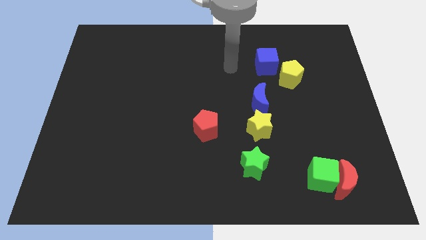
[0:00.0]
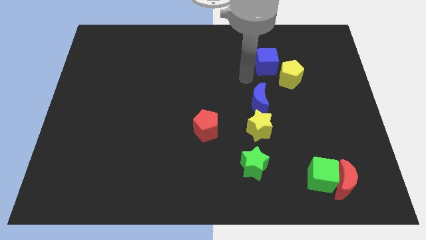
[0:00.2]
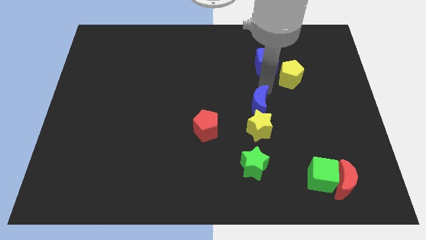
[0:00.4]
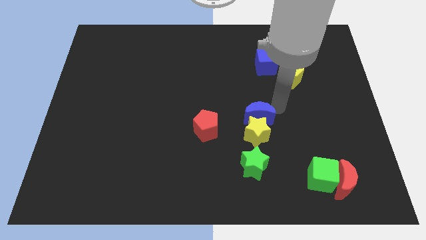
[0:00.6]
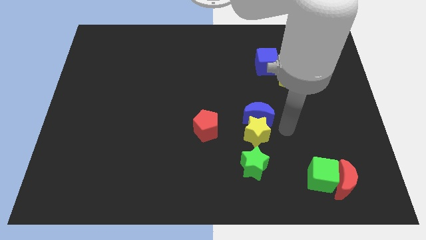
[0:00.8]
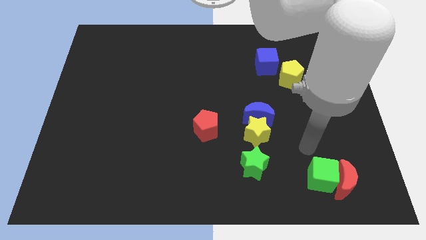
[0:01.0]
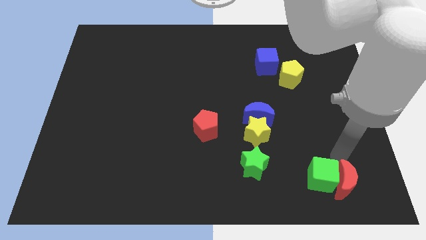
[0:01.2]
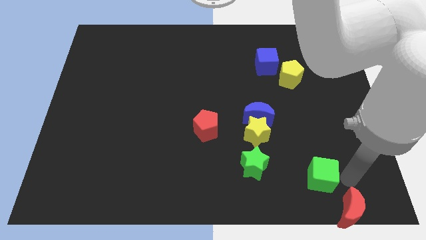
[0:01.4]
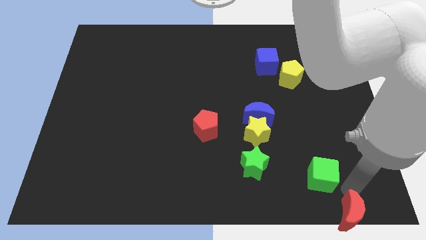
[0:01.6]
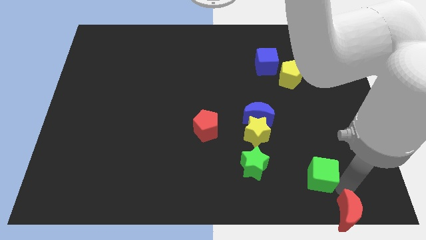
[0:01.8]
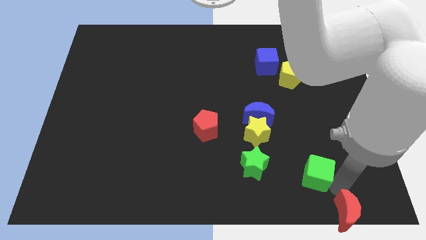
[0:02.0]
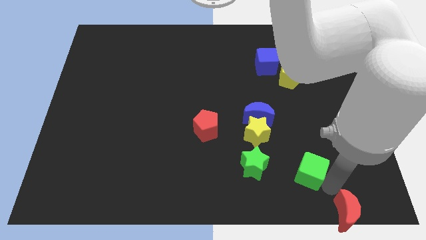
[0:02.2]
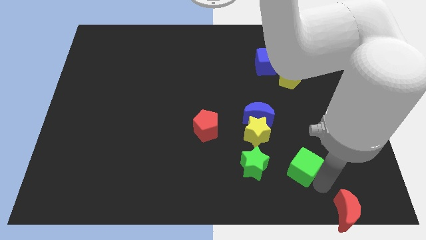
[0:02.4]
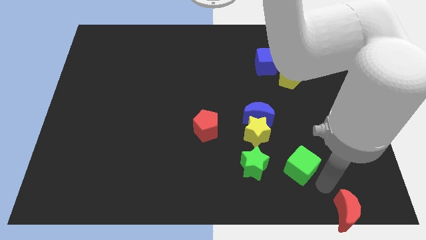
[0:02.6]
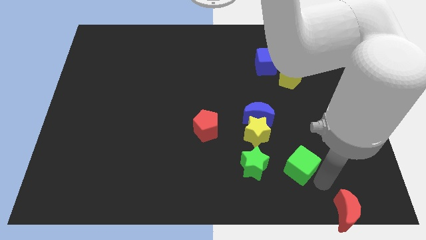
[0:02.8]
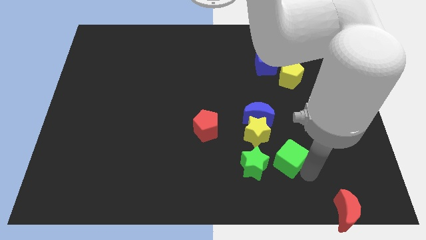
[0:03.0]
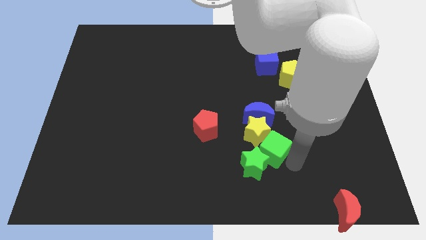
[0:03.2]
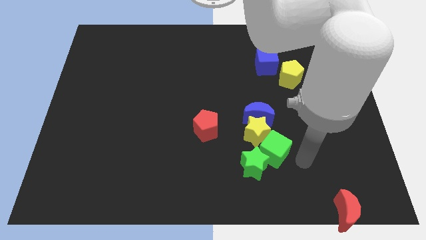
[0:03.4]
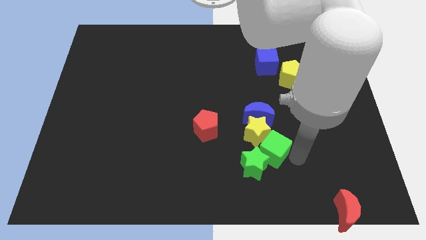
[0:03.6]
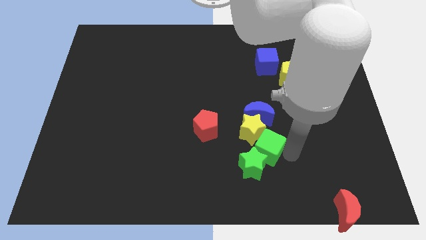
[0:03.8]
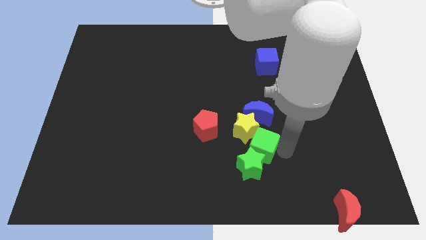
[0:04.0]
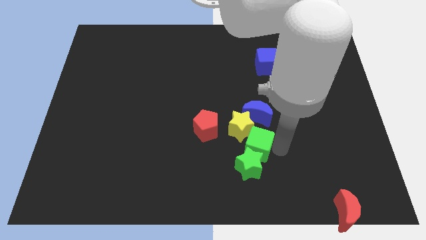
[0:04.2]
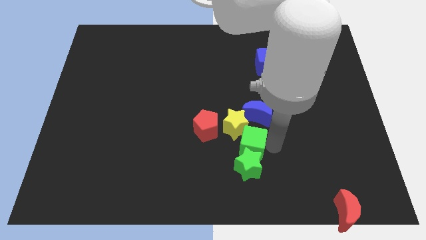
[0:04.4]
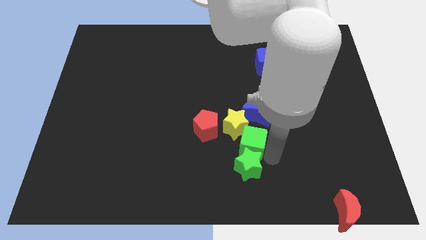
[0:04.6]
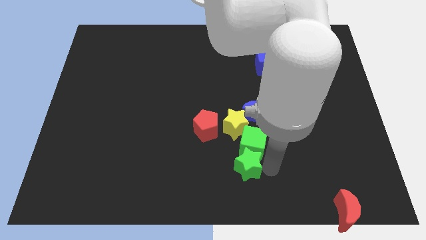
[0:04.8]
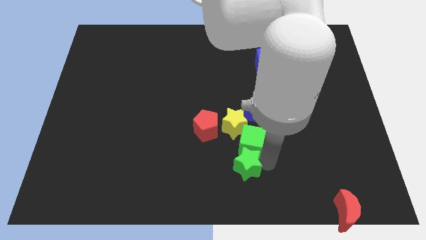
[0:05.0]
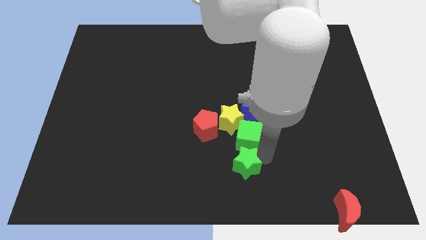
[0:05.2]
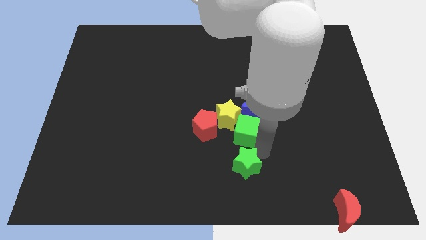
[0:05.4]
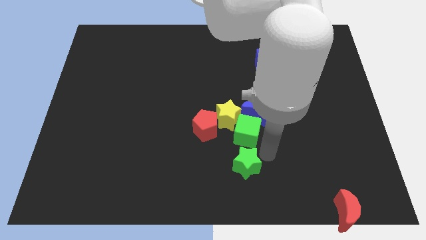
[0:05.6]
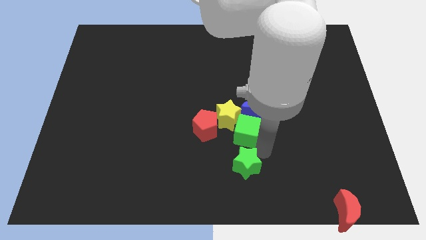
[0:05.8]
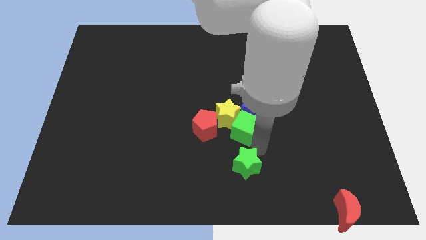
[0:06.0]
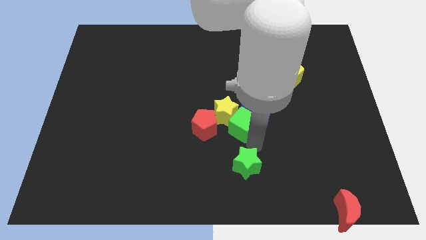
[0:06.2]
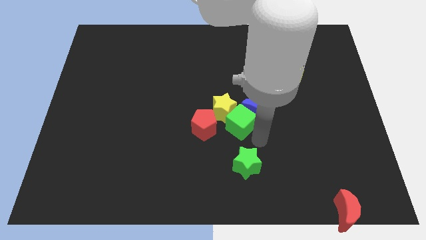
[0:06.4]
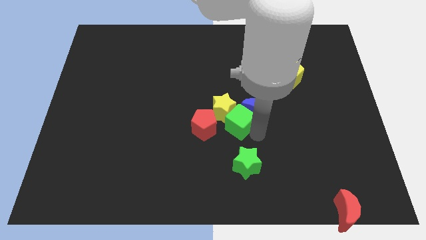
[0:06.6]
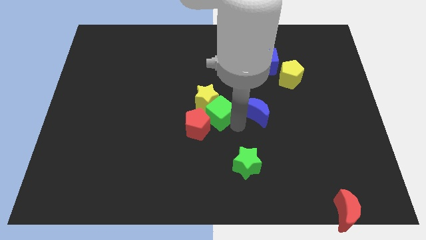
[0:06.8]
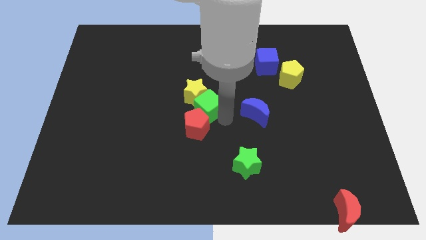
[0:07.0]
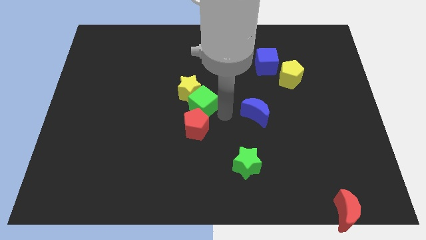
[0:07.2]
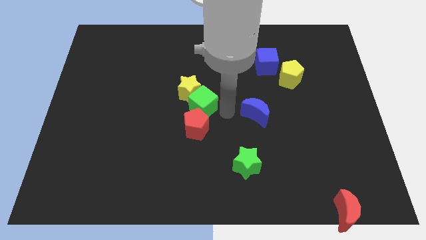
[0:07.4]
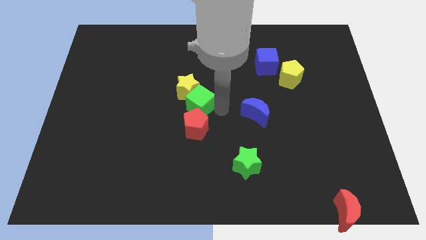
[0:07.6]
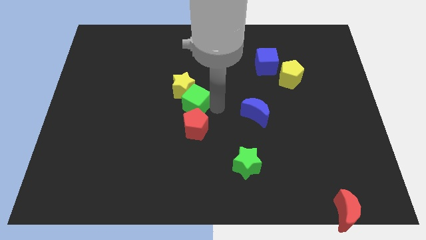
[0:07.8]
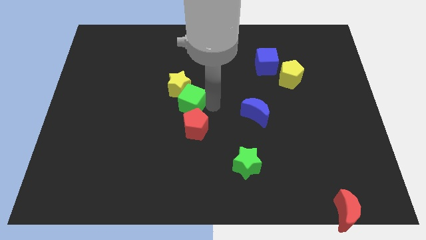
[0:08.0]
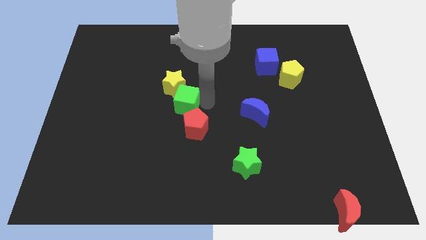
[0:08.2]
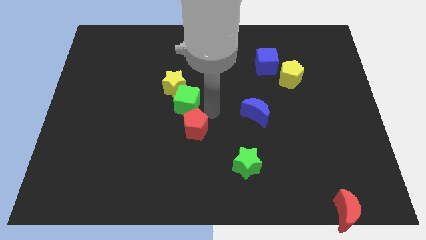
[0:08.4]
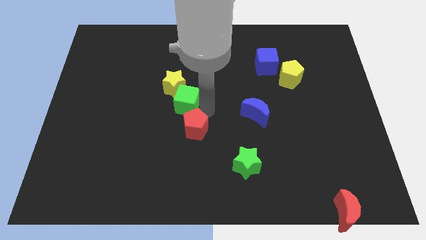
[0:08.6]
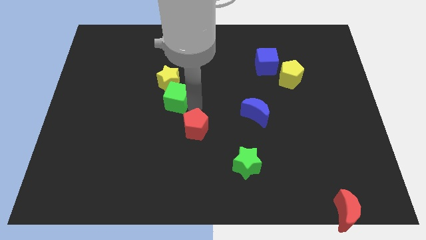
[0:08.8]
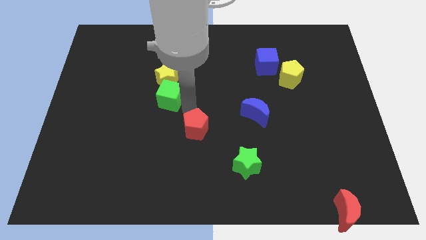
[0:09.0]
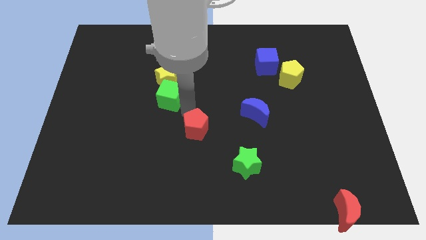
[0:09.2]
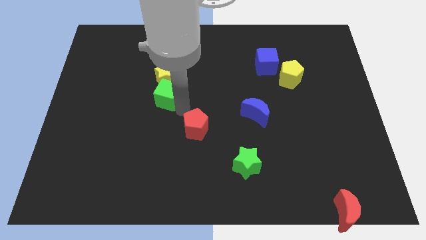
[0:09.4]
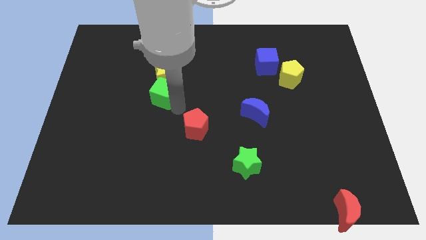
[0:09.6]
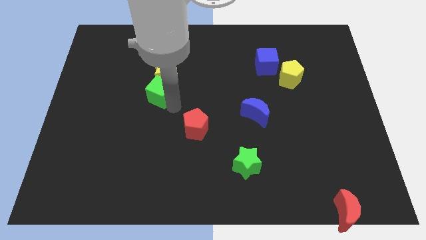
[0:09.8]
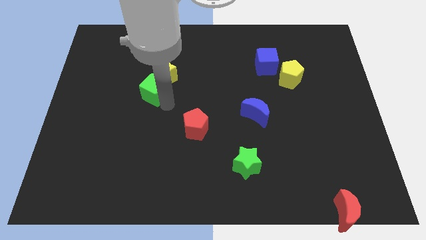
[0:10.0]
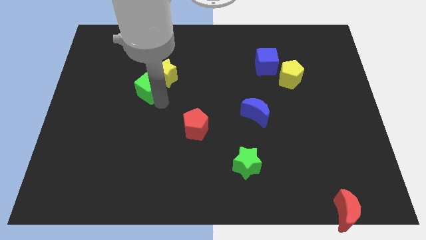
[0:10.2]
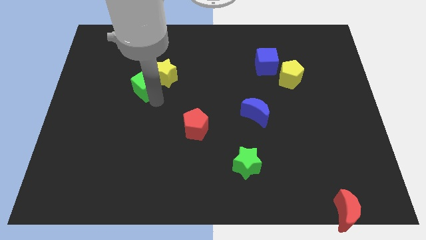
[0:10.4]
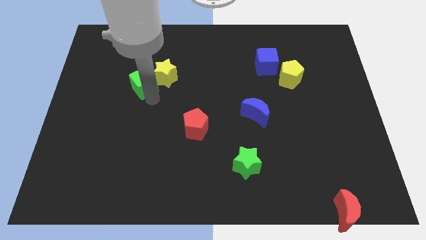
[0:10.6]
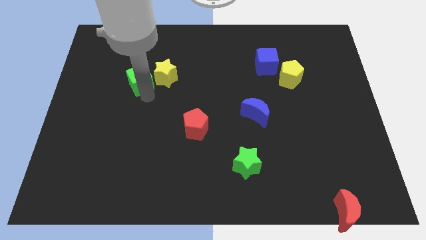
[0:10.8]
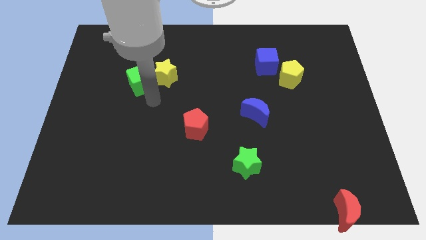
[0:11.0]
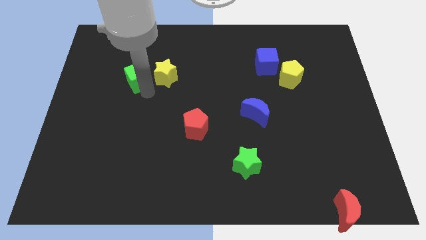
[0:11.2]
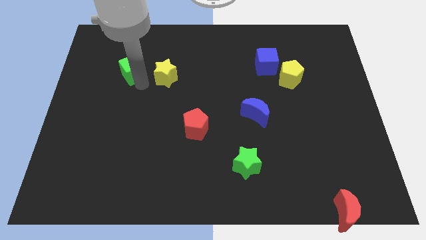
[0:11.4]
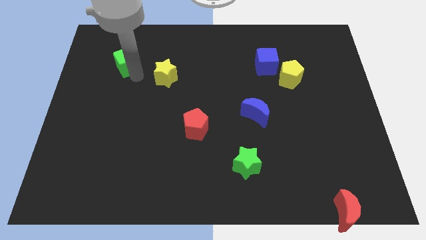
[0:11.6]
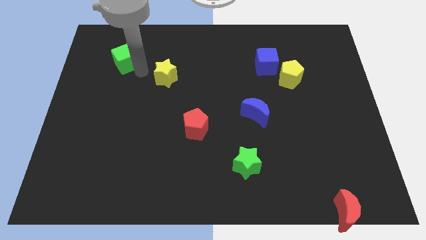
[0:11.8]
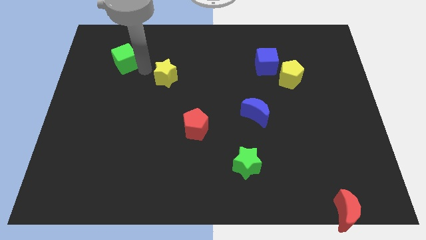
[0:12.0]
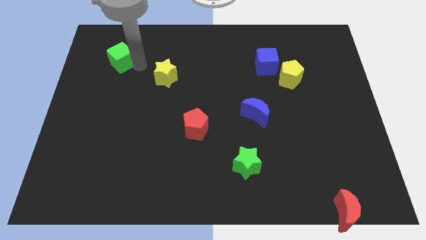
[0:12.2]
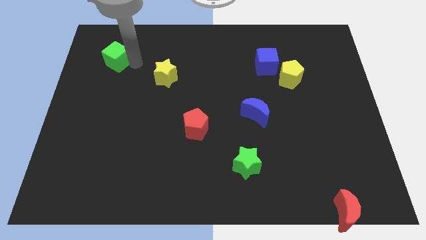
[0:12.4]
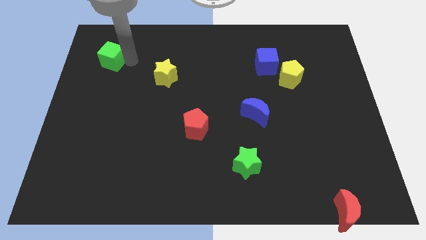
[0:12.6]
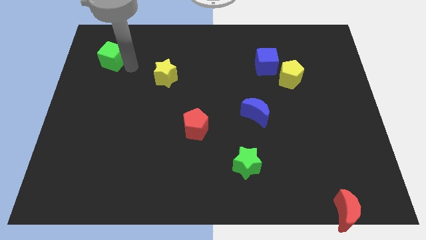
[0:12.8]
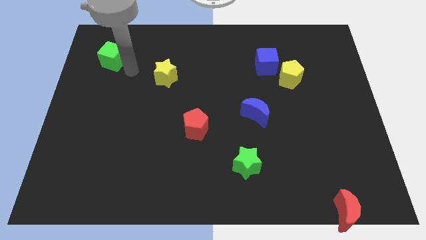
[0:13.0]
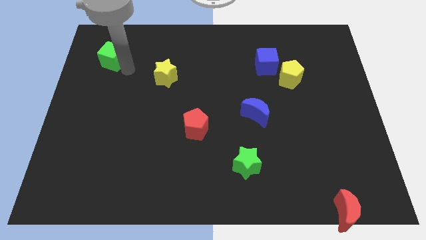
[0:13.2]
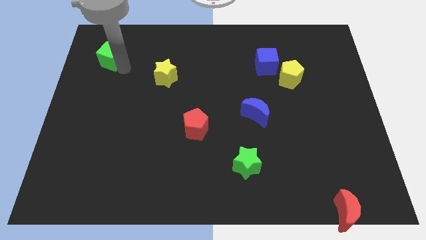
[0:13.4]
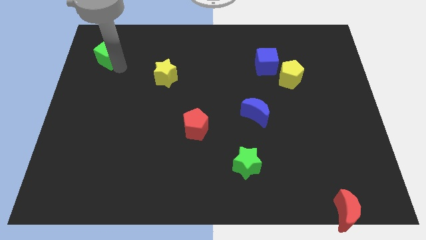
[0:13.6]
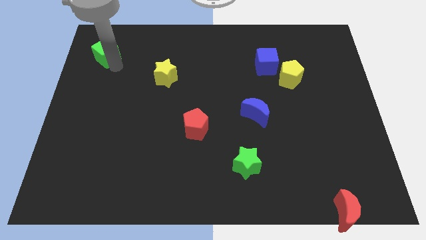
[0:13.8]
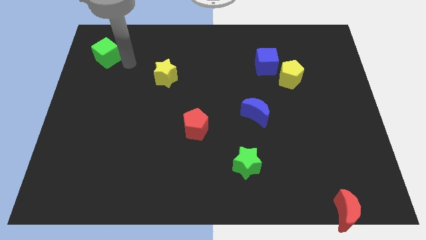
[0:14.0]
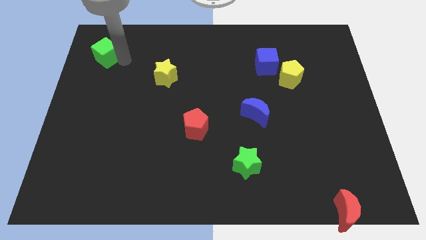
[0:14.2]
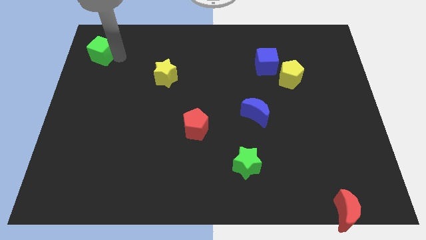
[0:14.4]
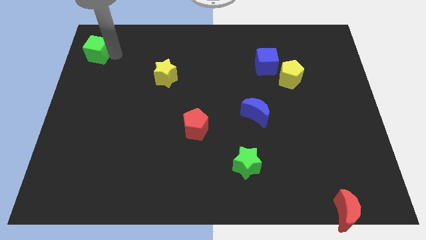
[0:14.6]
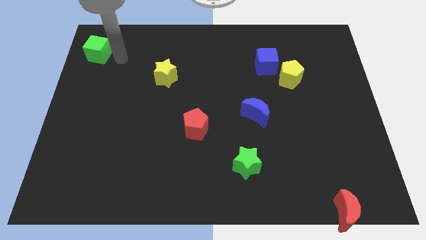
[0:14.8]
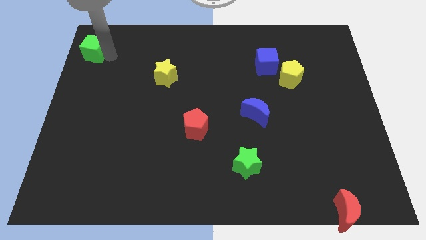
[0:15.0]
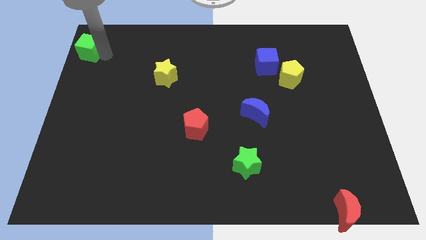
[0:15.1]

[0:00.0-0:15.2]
move the green cube to the top left corner
